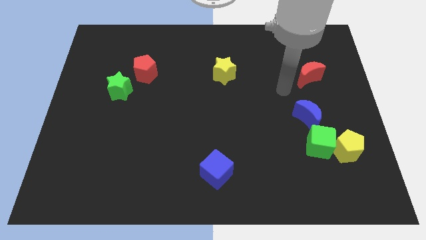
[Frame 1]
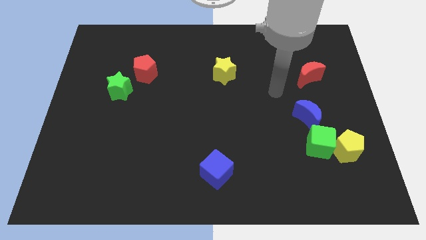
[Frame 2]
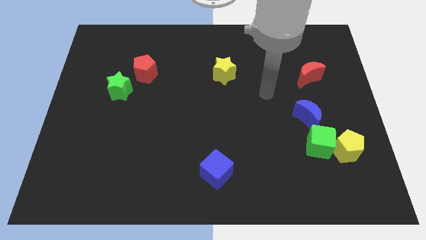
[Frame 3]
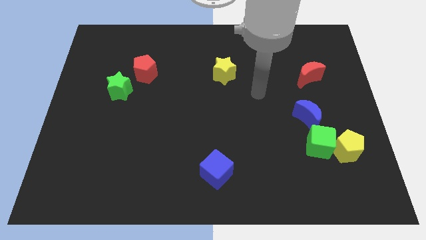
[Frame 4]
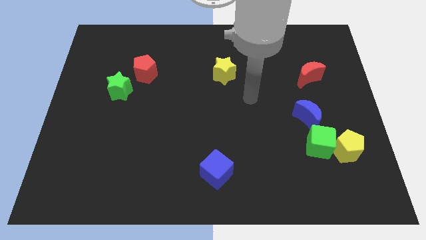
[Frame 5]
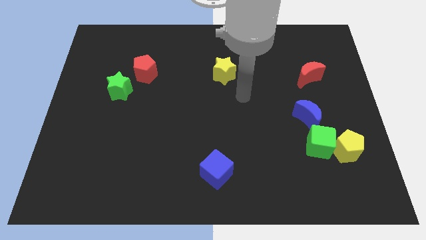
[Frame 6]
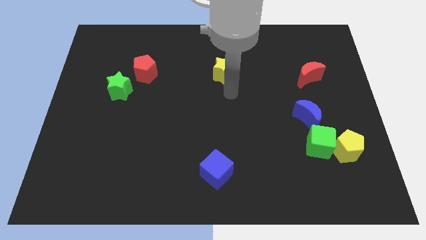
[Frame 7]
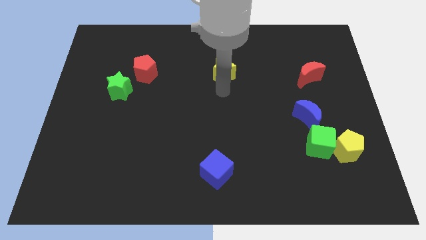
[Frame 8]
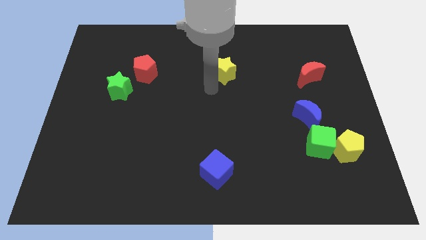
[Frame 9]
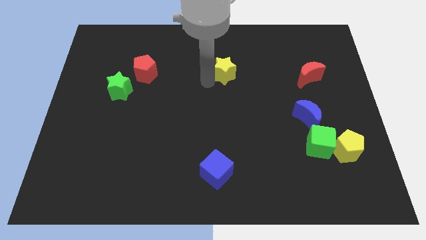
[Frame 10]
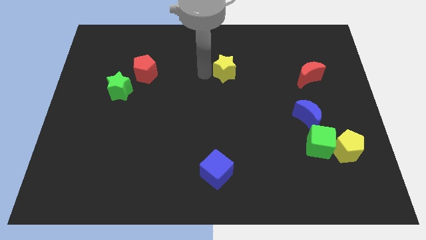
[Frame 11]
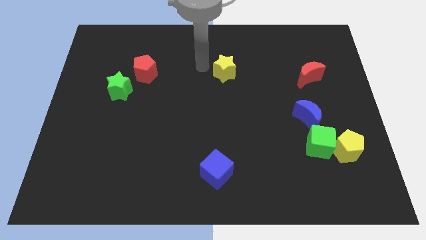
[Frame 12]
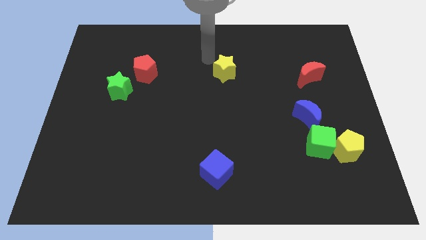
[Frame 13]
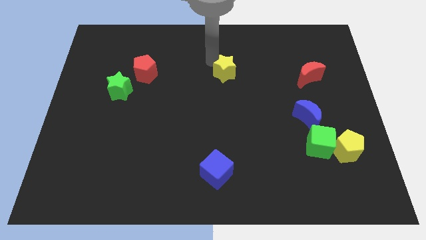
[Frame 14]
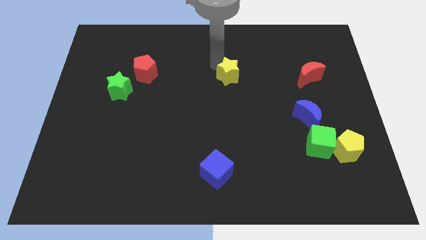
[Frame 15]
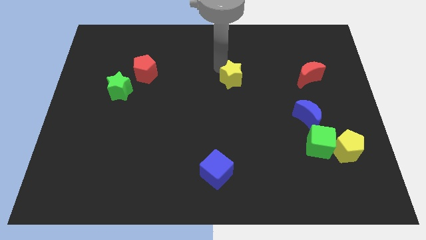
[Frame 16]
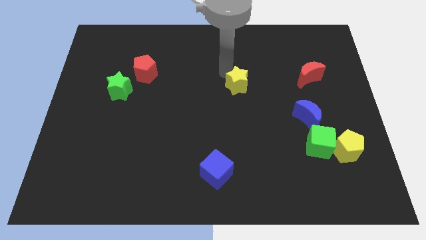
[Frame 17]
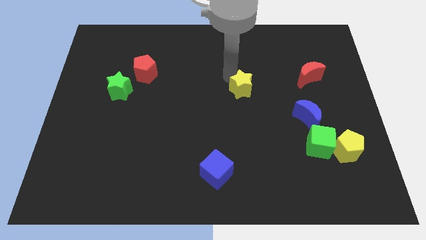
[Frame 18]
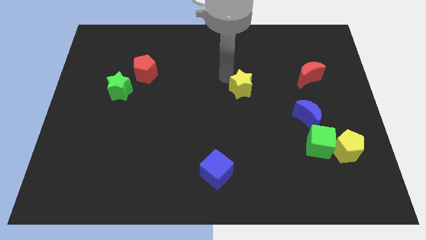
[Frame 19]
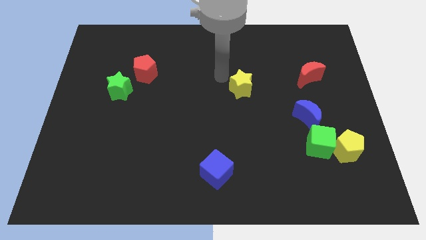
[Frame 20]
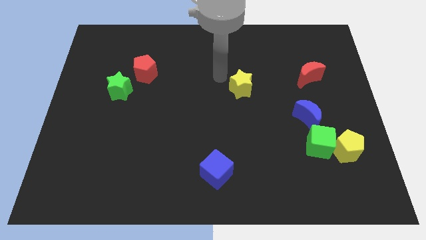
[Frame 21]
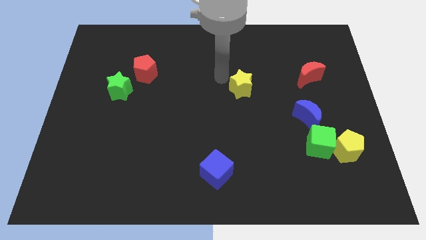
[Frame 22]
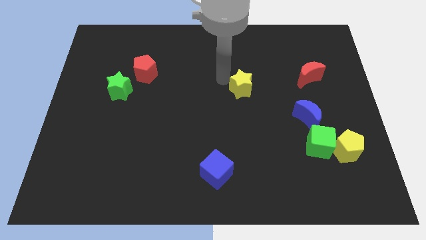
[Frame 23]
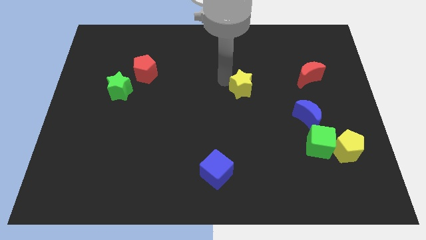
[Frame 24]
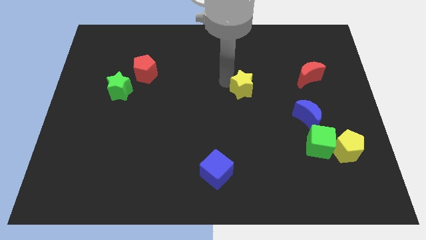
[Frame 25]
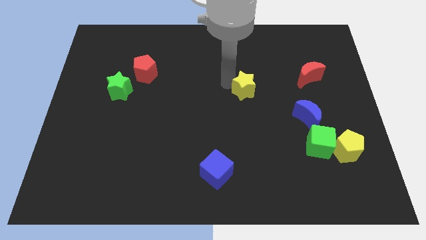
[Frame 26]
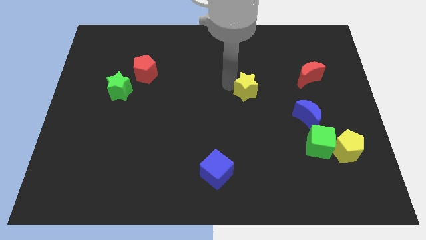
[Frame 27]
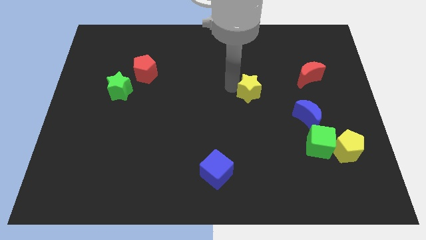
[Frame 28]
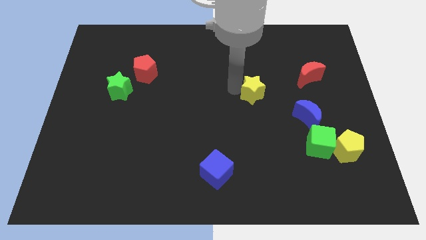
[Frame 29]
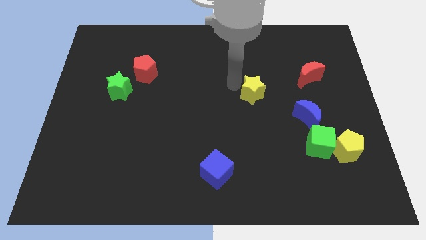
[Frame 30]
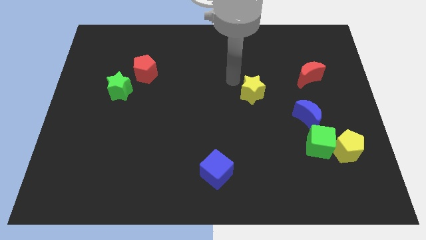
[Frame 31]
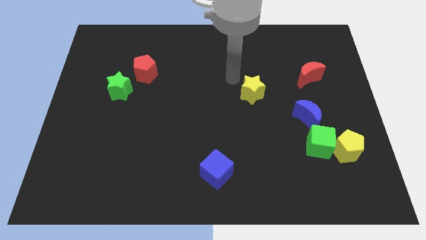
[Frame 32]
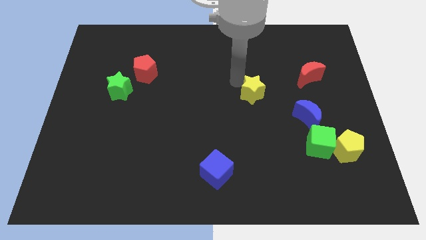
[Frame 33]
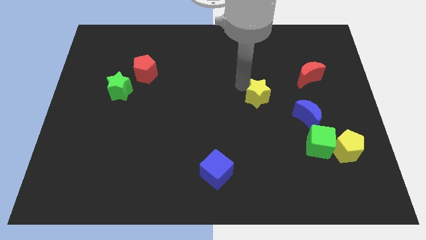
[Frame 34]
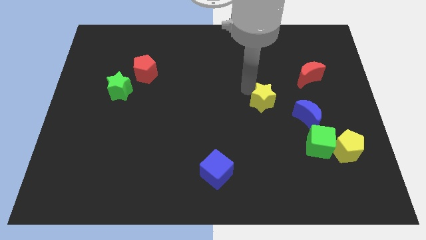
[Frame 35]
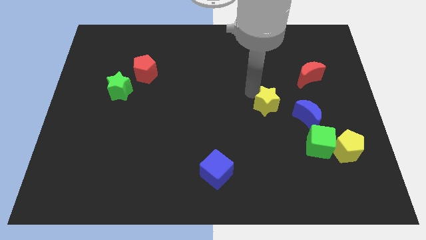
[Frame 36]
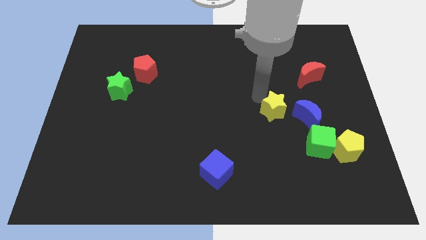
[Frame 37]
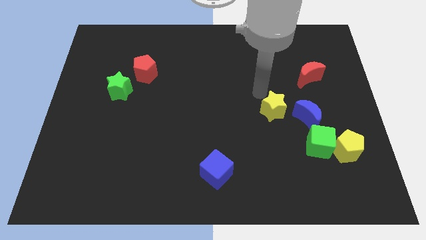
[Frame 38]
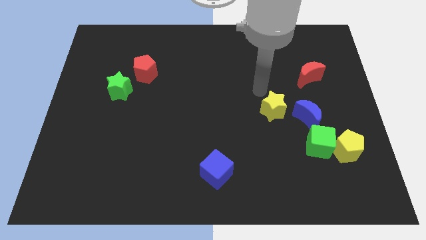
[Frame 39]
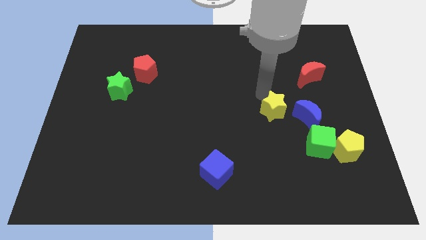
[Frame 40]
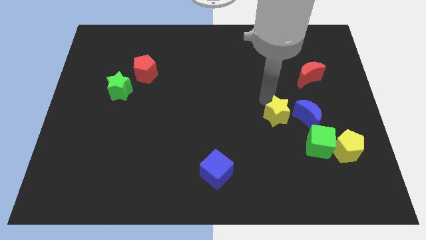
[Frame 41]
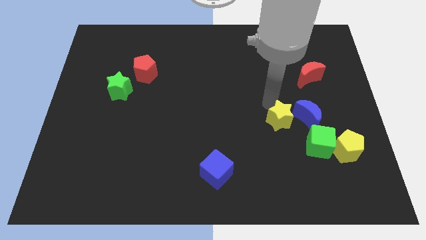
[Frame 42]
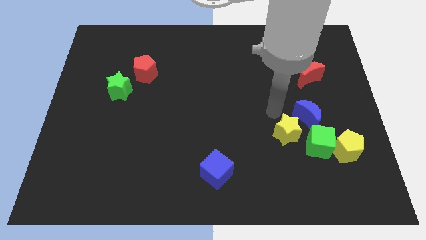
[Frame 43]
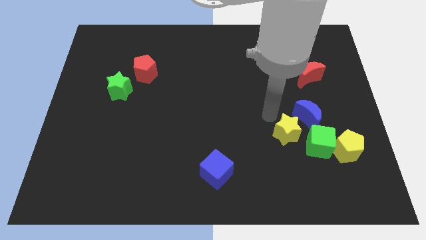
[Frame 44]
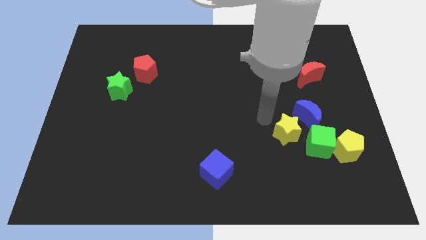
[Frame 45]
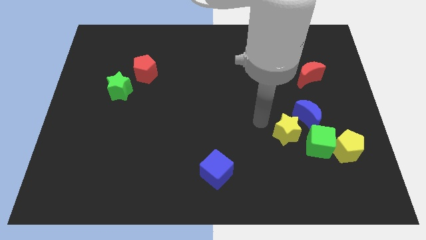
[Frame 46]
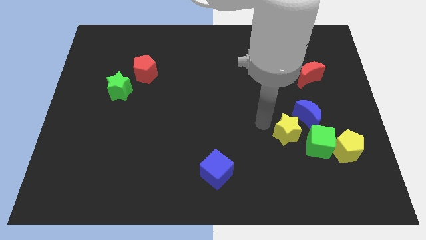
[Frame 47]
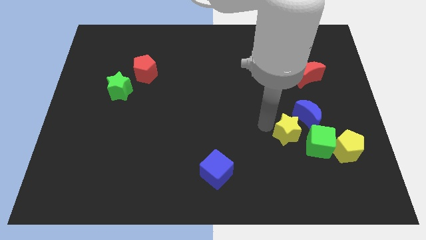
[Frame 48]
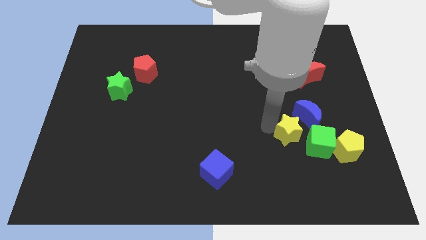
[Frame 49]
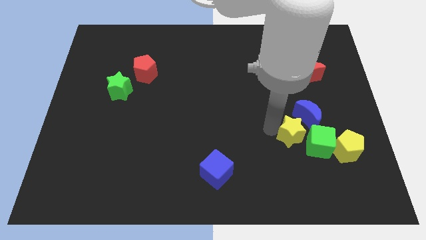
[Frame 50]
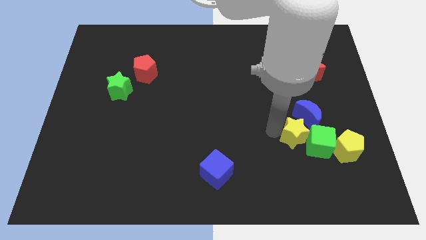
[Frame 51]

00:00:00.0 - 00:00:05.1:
move the yellow star to the green cube

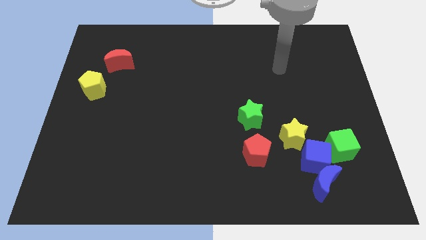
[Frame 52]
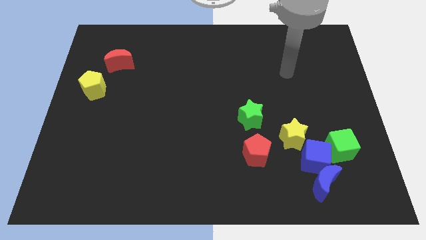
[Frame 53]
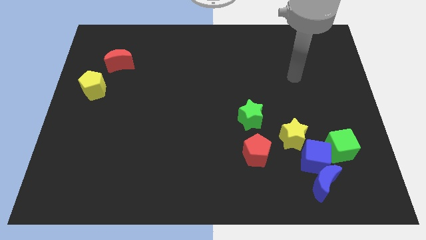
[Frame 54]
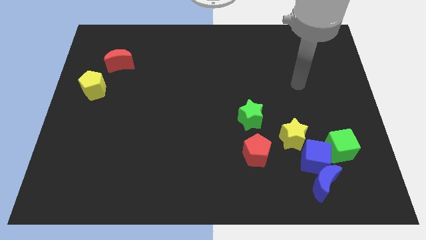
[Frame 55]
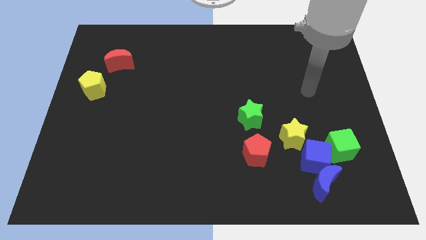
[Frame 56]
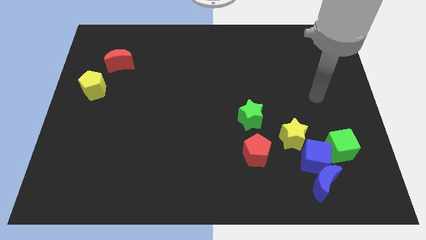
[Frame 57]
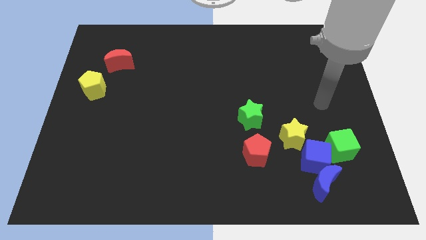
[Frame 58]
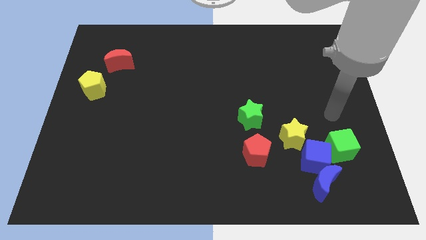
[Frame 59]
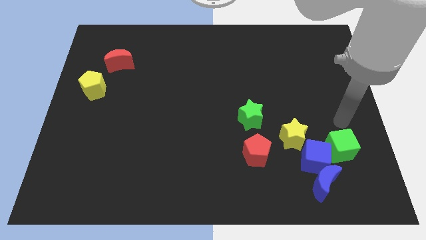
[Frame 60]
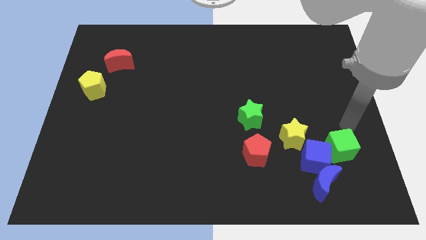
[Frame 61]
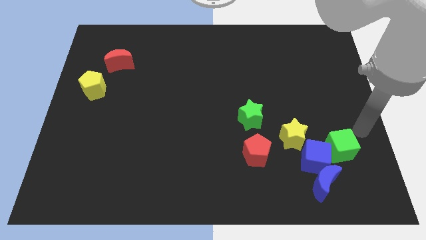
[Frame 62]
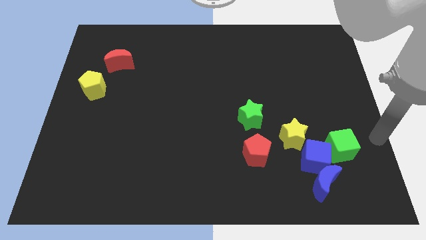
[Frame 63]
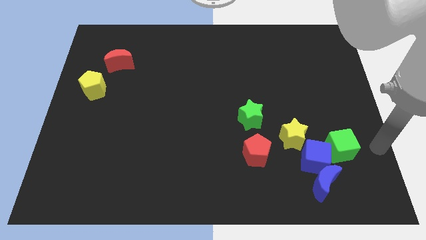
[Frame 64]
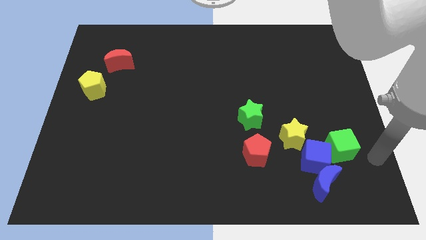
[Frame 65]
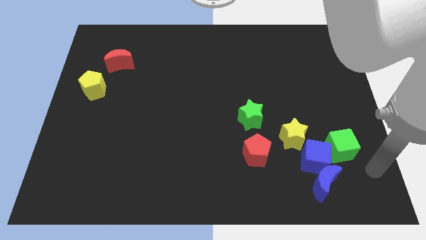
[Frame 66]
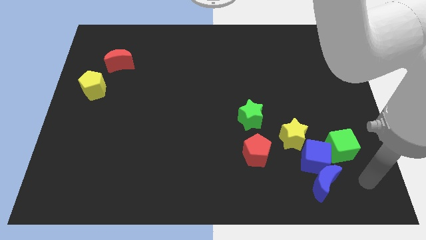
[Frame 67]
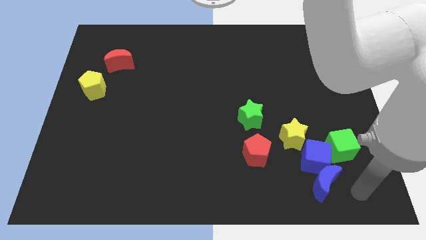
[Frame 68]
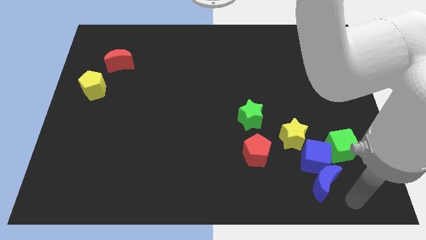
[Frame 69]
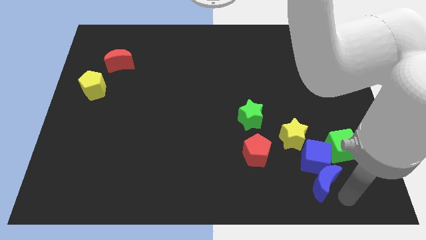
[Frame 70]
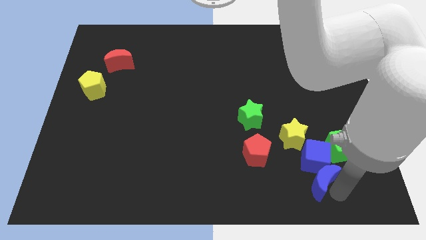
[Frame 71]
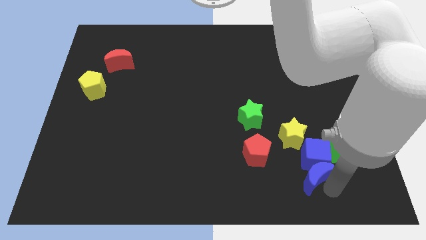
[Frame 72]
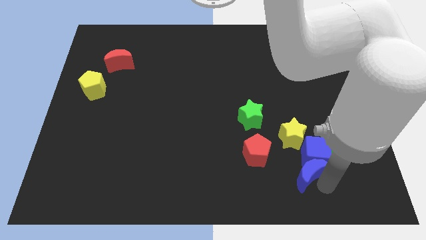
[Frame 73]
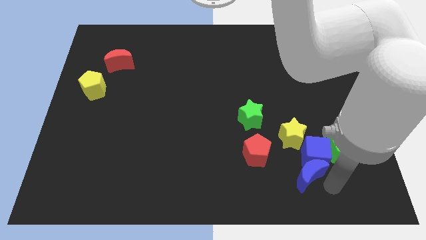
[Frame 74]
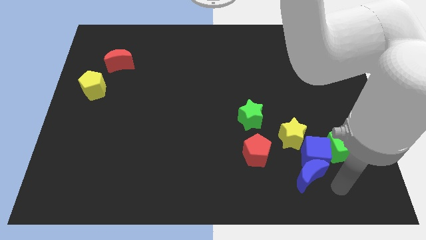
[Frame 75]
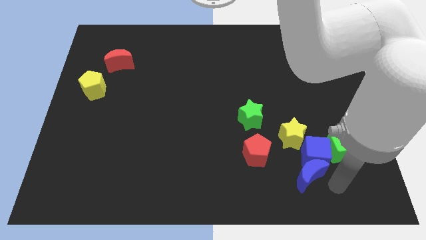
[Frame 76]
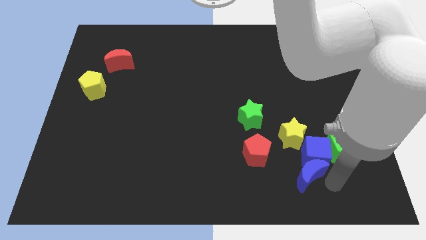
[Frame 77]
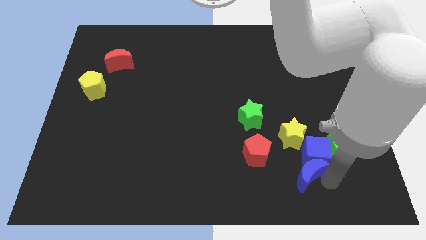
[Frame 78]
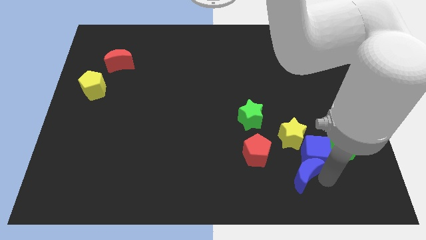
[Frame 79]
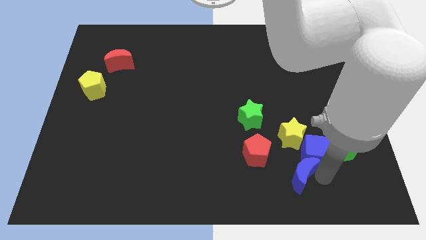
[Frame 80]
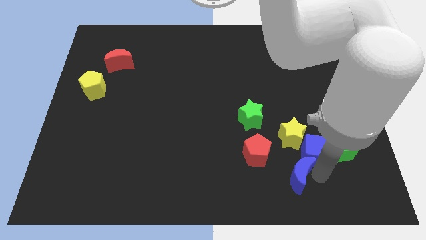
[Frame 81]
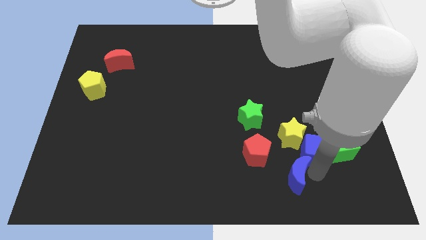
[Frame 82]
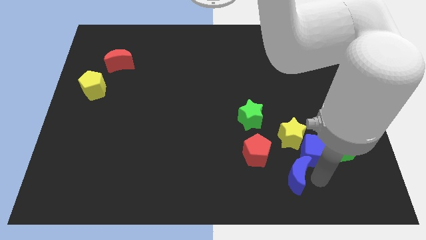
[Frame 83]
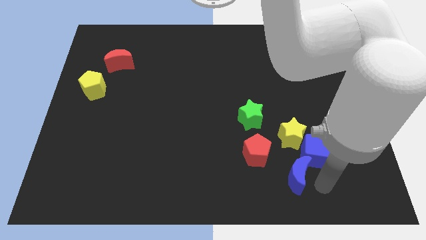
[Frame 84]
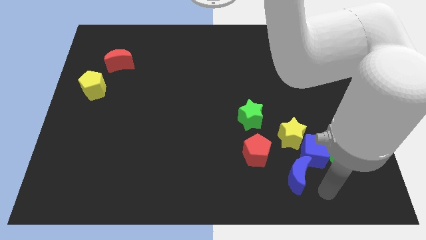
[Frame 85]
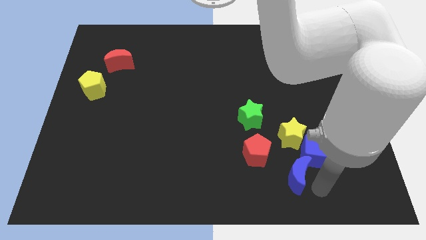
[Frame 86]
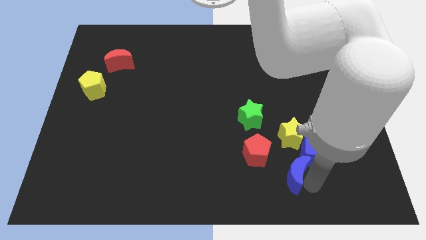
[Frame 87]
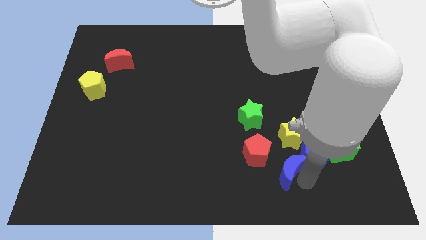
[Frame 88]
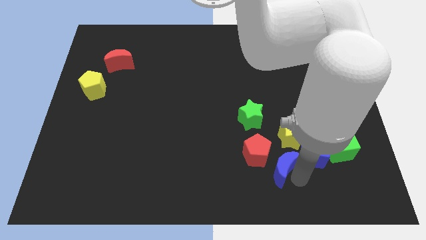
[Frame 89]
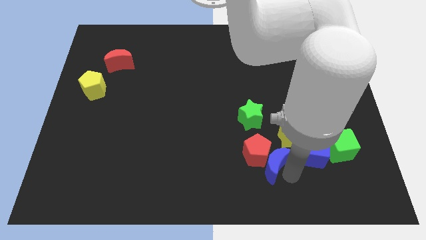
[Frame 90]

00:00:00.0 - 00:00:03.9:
put the blue moon next to the red pentagon
